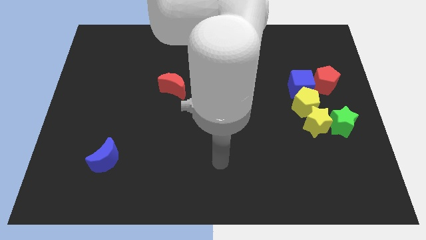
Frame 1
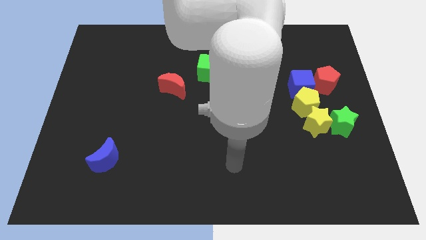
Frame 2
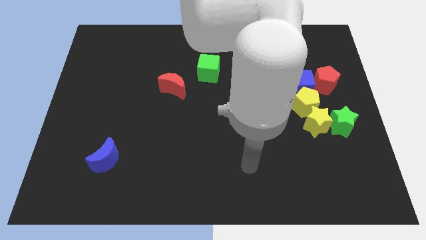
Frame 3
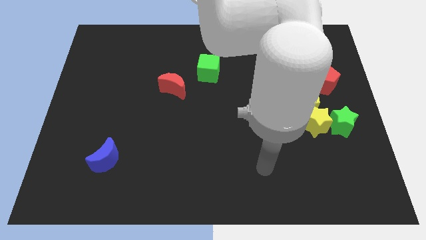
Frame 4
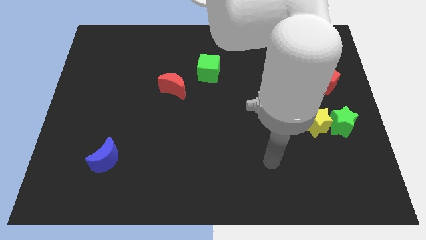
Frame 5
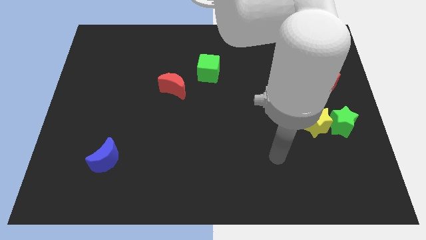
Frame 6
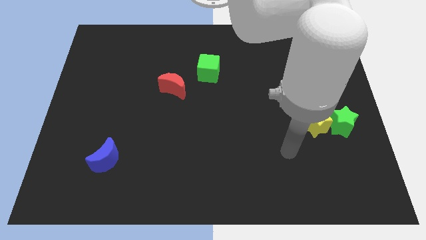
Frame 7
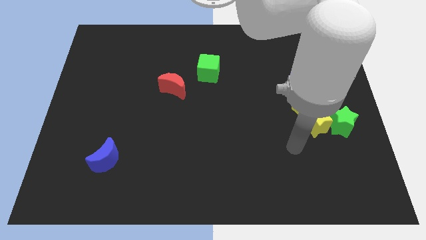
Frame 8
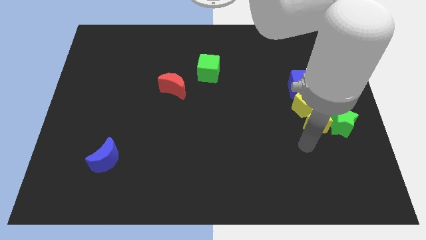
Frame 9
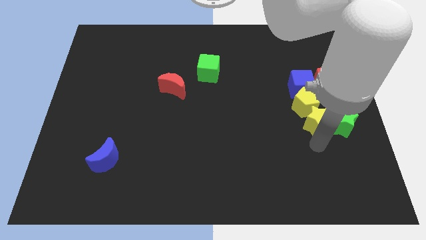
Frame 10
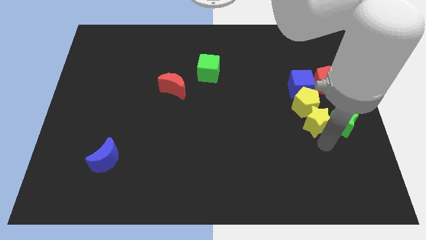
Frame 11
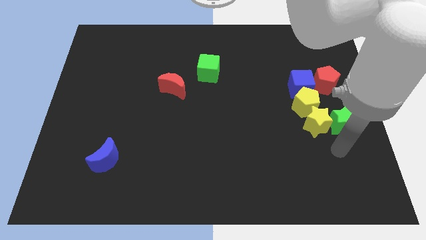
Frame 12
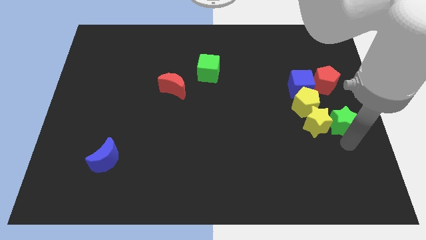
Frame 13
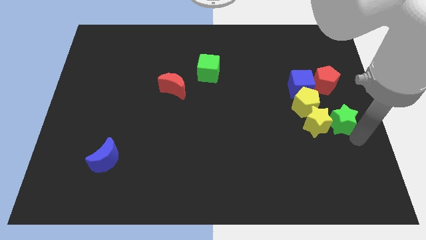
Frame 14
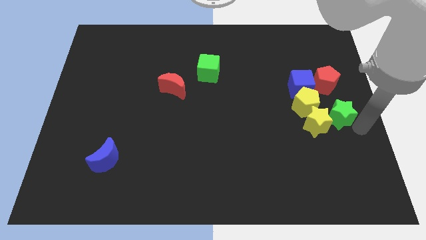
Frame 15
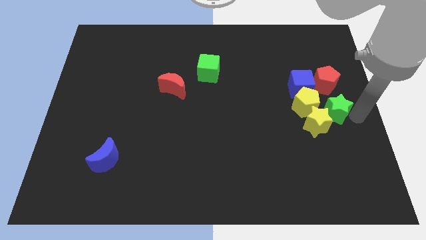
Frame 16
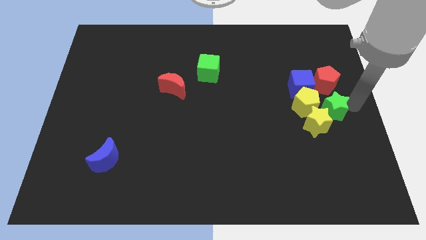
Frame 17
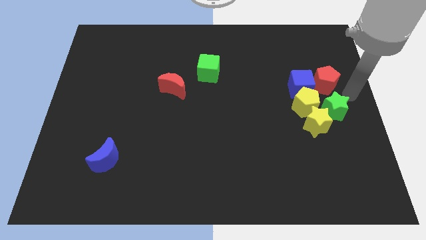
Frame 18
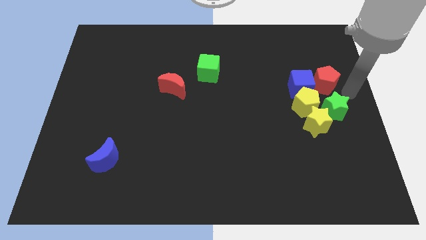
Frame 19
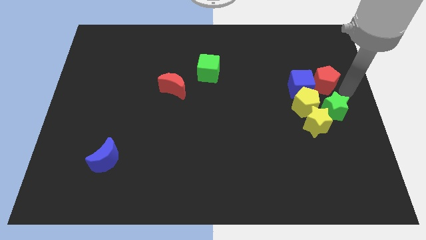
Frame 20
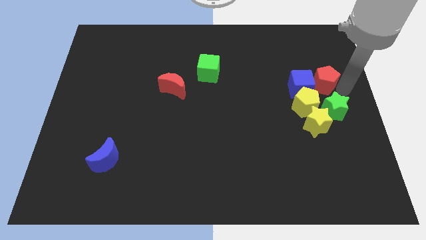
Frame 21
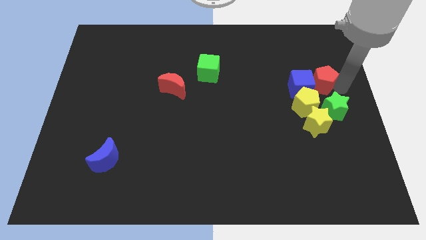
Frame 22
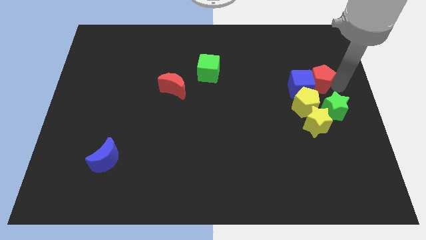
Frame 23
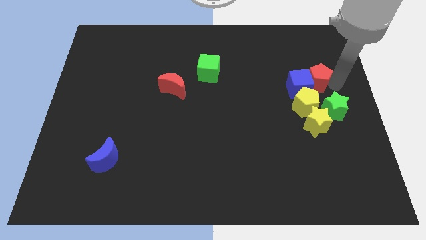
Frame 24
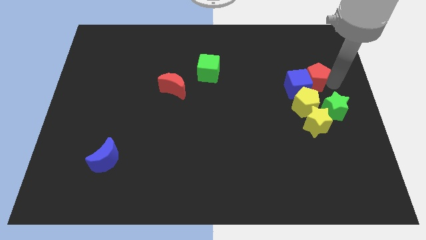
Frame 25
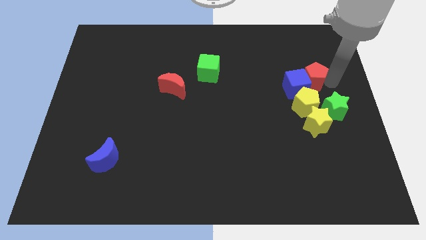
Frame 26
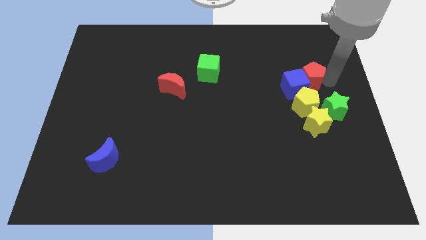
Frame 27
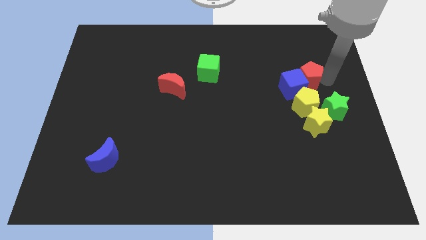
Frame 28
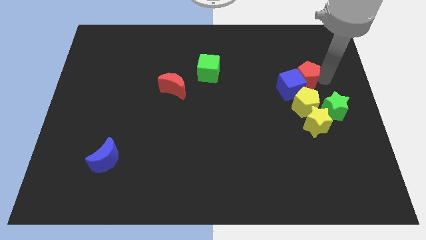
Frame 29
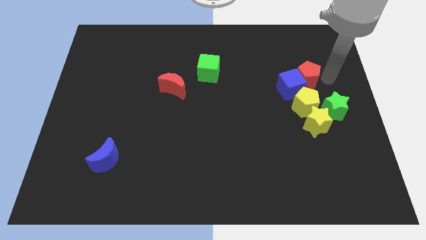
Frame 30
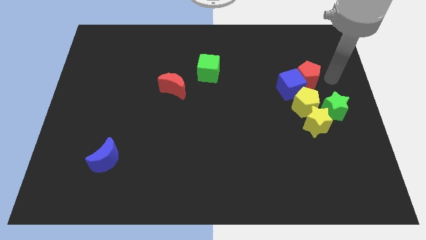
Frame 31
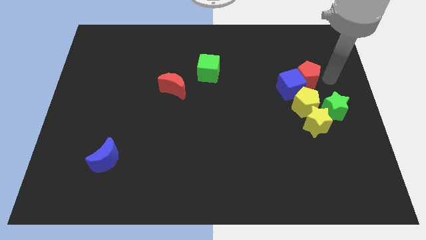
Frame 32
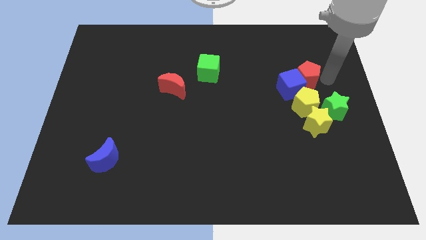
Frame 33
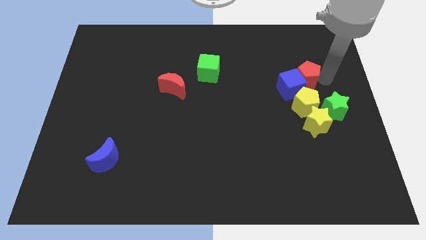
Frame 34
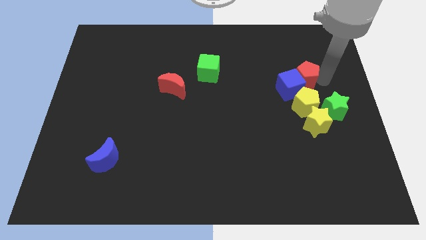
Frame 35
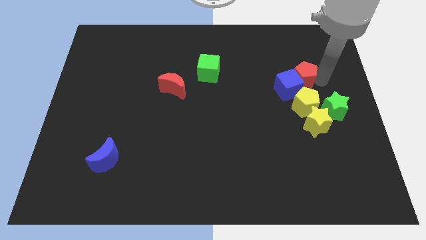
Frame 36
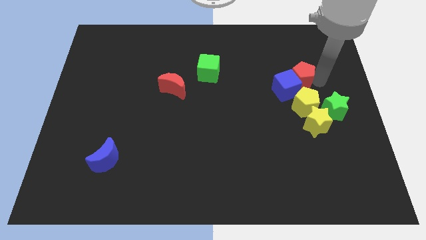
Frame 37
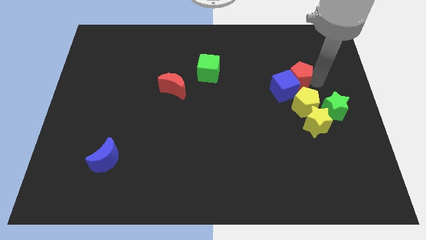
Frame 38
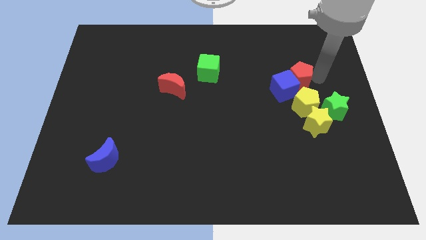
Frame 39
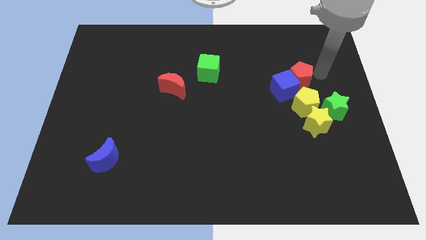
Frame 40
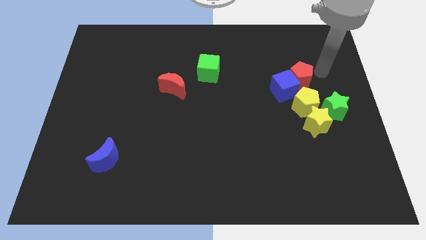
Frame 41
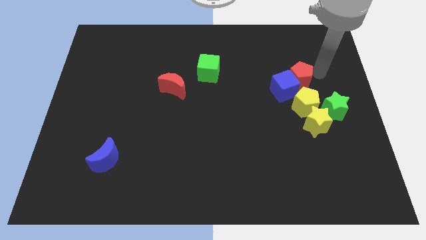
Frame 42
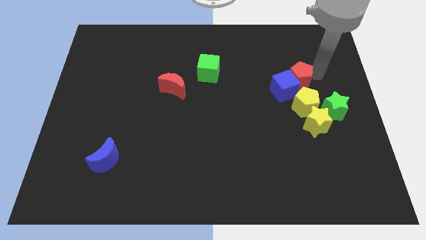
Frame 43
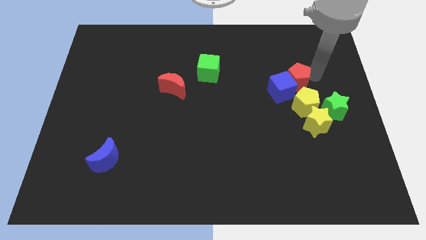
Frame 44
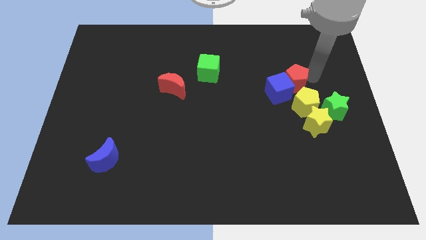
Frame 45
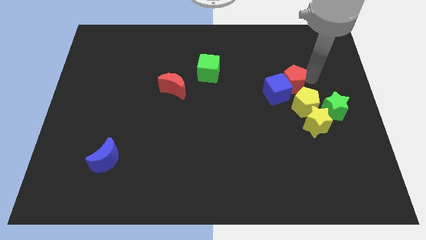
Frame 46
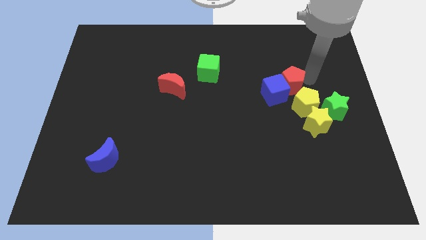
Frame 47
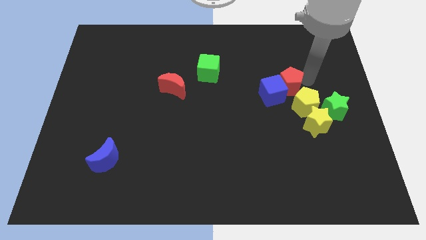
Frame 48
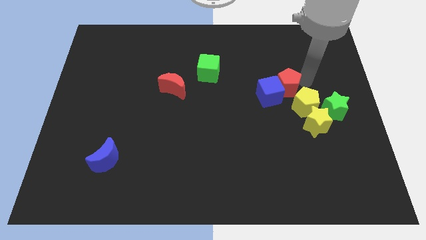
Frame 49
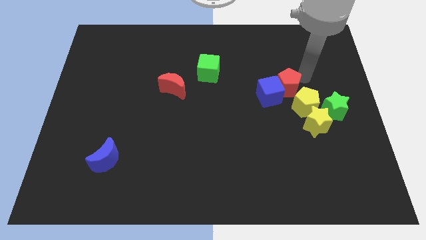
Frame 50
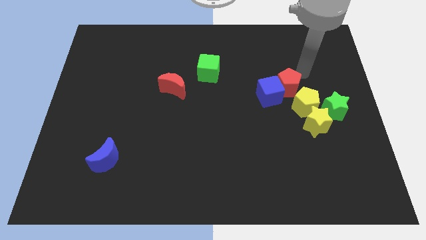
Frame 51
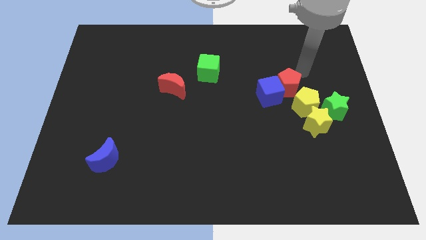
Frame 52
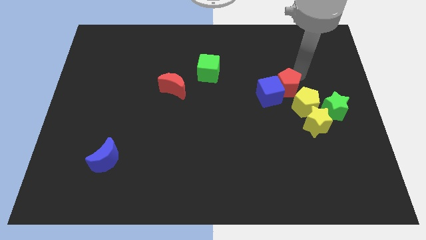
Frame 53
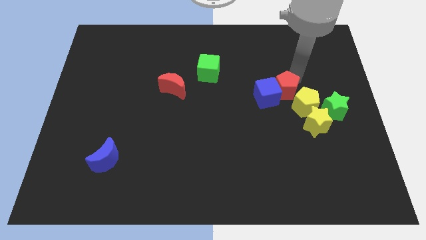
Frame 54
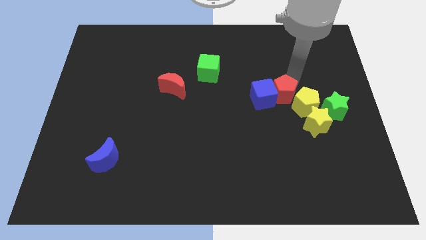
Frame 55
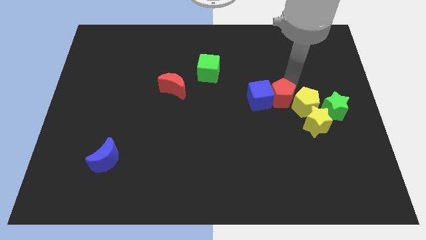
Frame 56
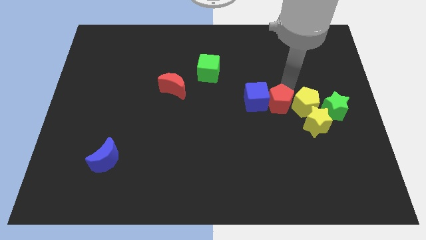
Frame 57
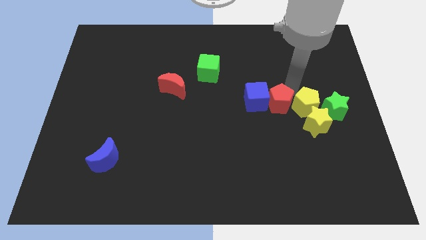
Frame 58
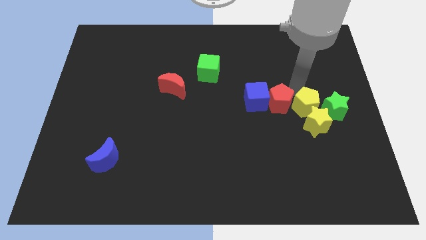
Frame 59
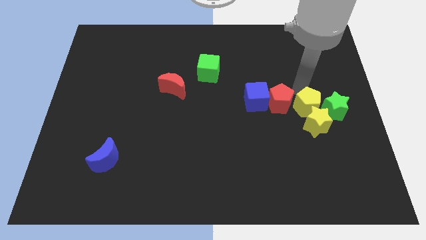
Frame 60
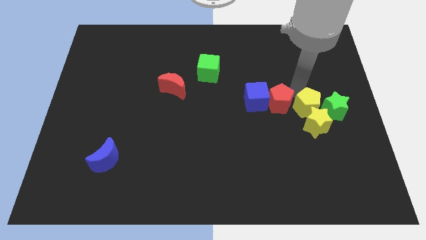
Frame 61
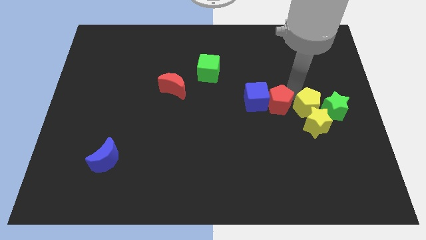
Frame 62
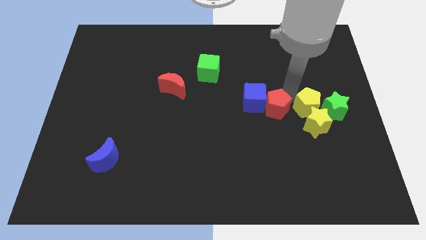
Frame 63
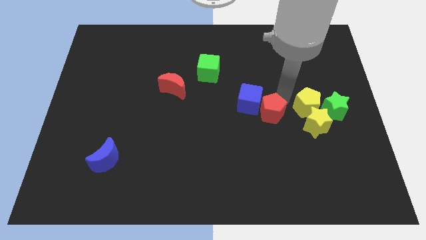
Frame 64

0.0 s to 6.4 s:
push the red pentagon to the left side of the yellow star
